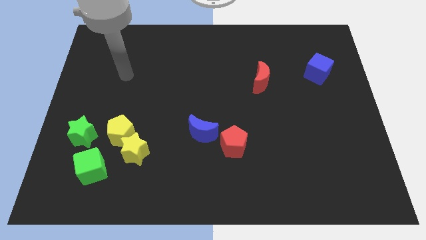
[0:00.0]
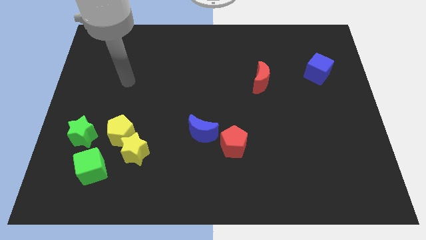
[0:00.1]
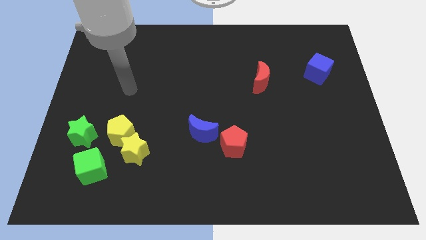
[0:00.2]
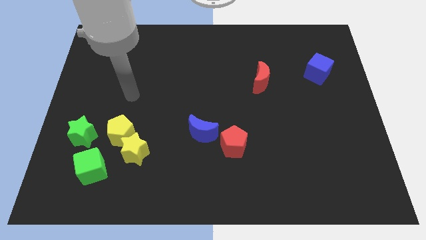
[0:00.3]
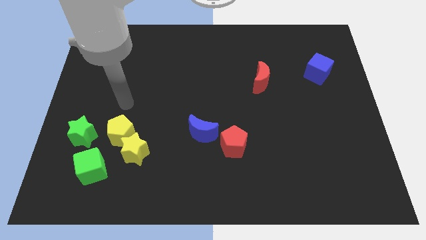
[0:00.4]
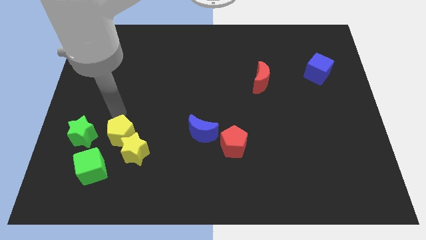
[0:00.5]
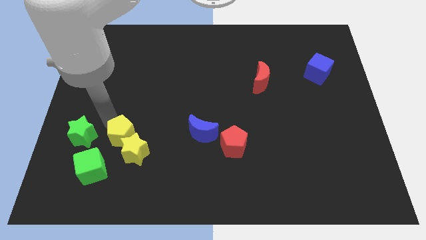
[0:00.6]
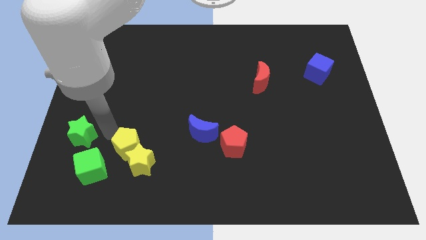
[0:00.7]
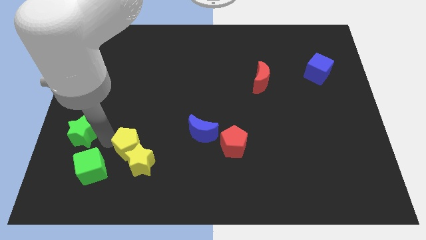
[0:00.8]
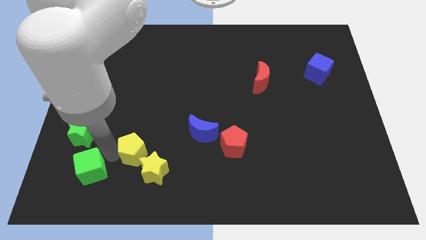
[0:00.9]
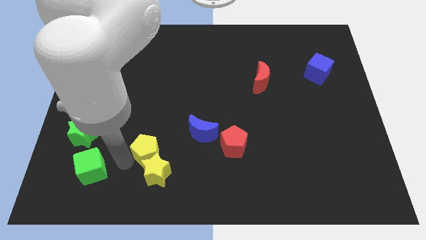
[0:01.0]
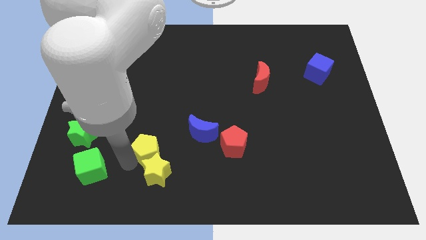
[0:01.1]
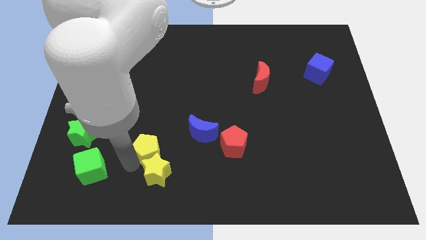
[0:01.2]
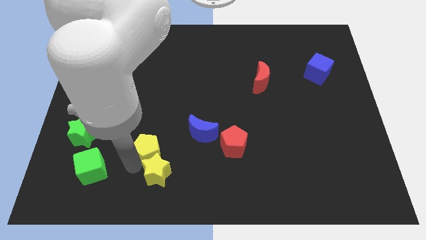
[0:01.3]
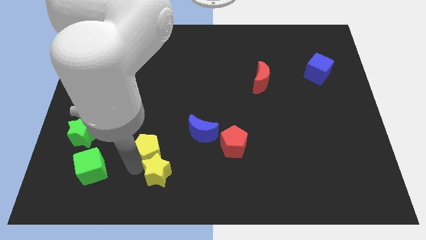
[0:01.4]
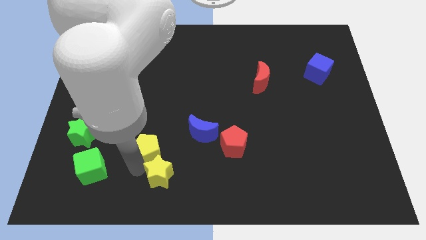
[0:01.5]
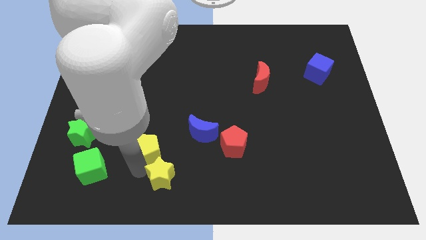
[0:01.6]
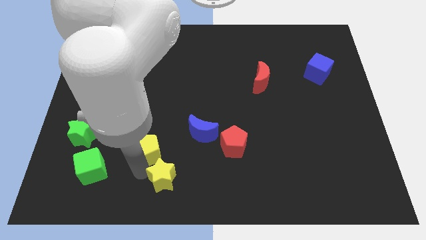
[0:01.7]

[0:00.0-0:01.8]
move the yellow star away from the yellow pentagon and green cube

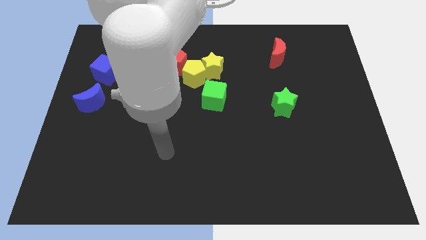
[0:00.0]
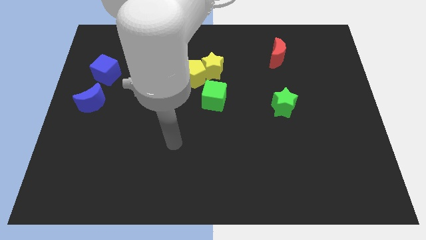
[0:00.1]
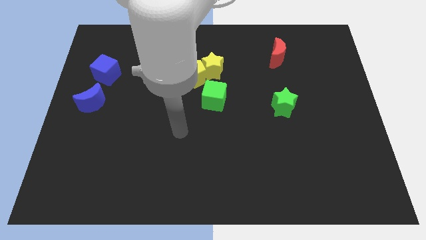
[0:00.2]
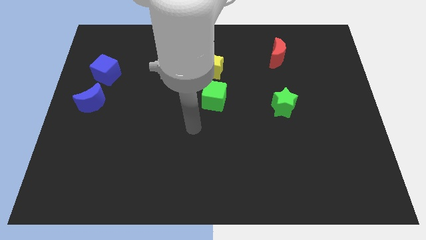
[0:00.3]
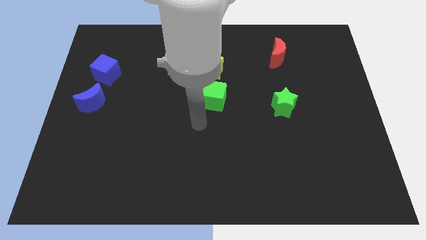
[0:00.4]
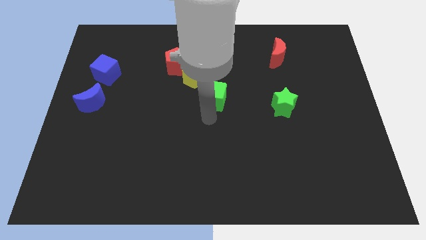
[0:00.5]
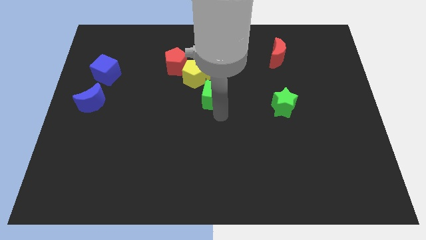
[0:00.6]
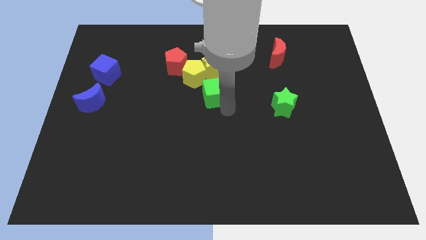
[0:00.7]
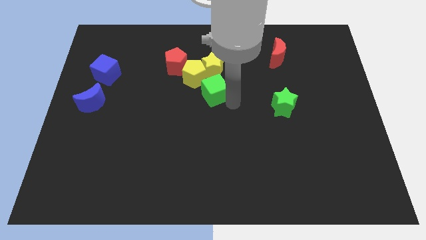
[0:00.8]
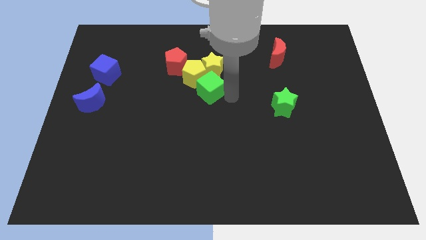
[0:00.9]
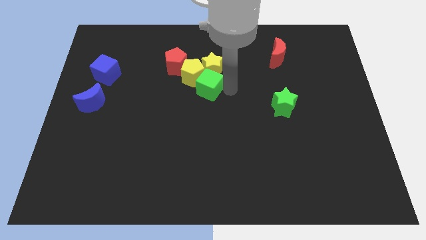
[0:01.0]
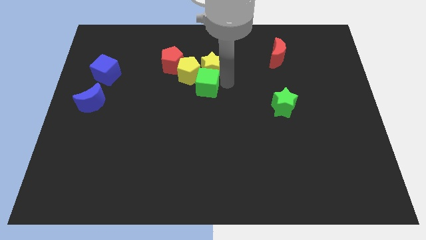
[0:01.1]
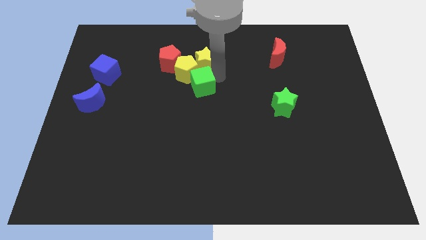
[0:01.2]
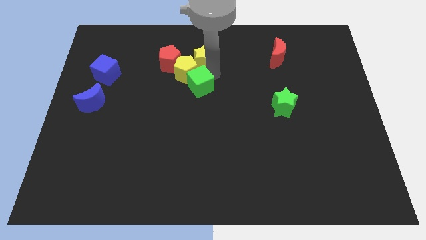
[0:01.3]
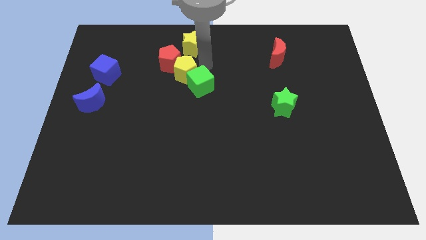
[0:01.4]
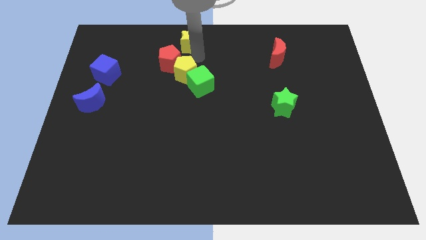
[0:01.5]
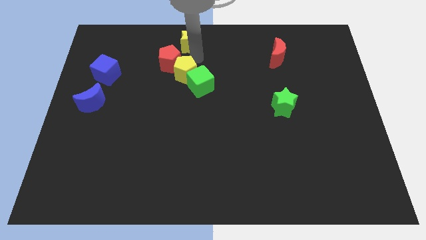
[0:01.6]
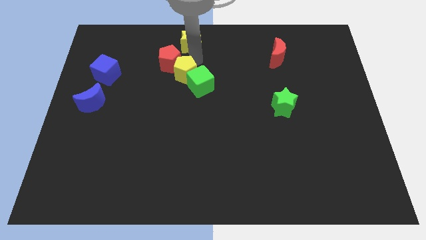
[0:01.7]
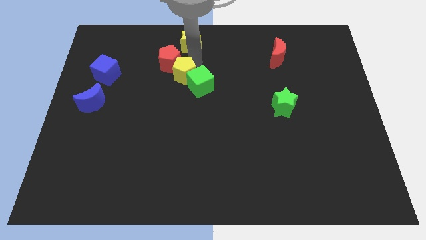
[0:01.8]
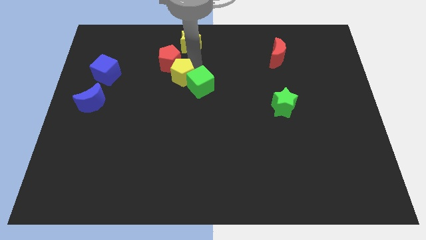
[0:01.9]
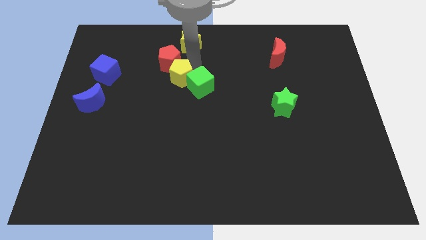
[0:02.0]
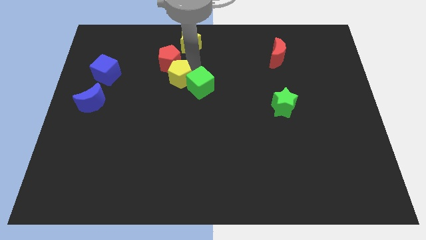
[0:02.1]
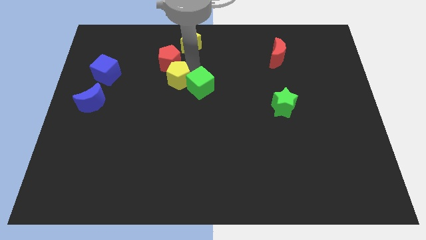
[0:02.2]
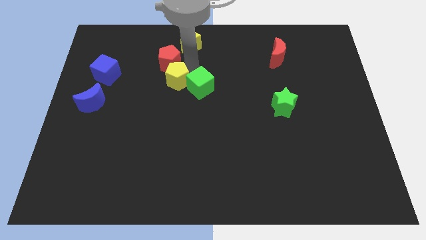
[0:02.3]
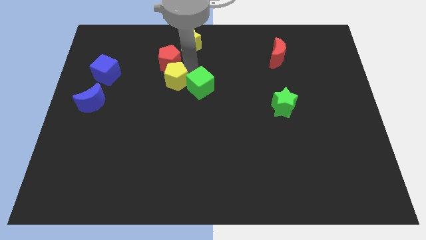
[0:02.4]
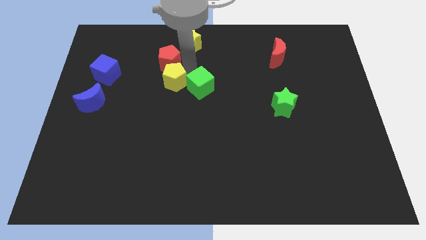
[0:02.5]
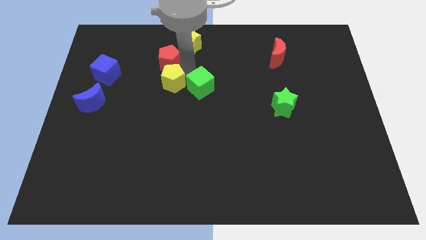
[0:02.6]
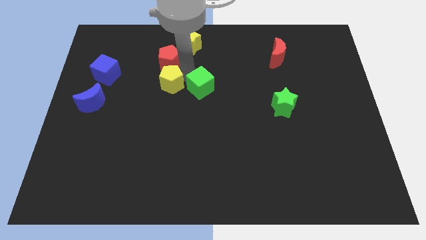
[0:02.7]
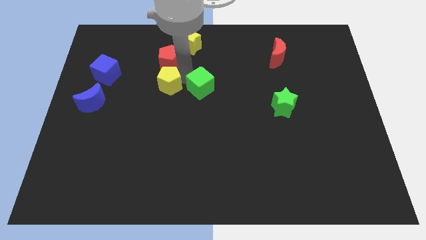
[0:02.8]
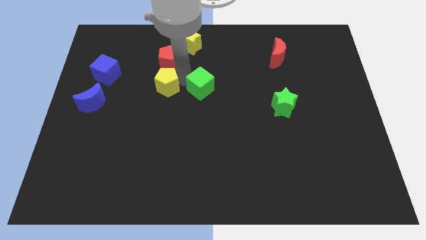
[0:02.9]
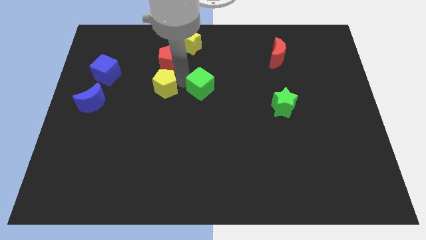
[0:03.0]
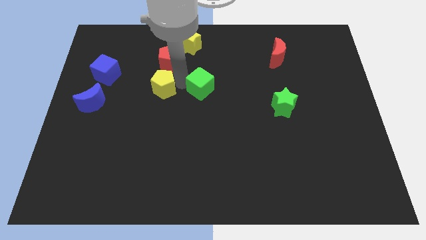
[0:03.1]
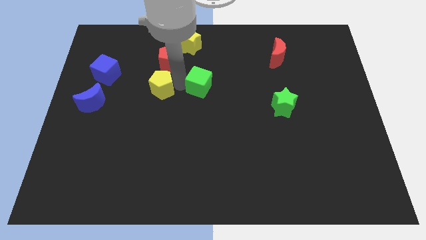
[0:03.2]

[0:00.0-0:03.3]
separate the yellow pentagon from the yellow star, red pentagon, and green cube

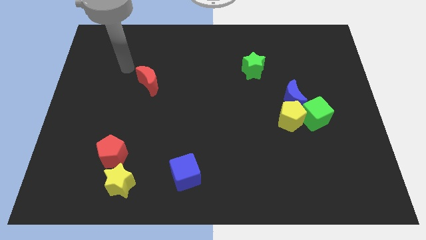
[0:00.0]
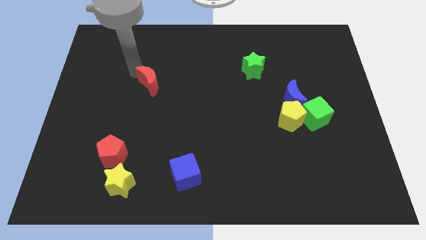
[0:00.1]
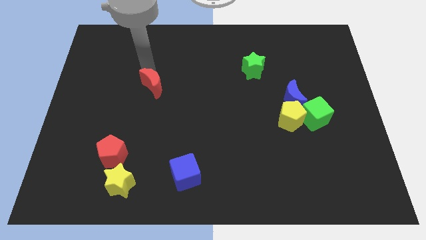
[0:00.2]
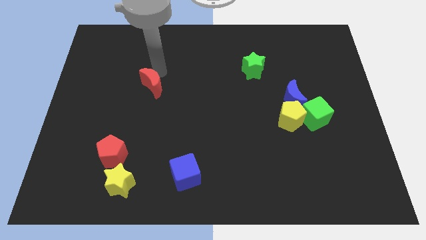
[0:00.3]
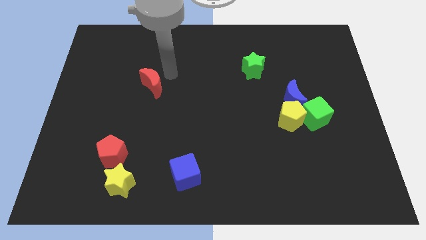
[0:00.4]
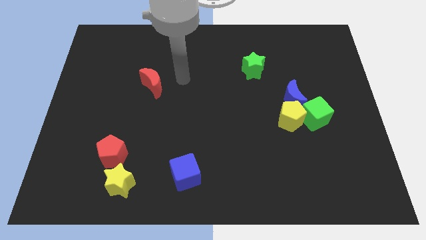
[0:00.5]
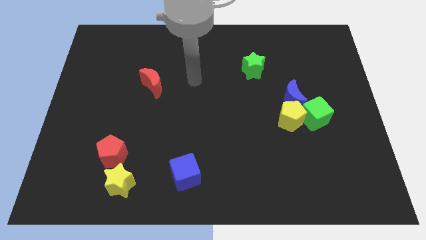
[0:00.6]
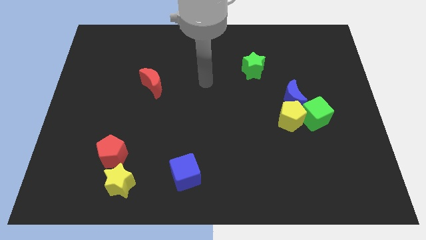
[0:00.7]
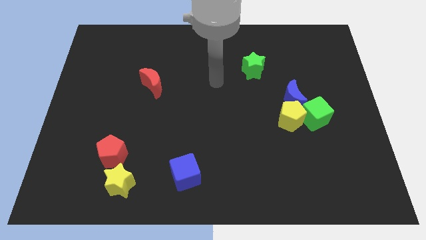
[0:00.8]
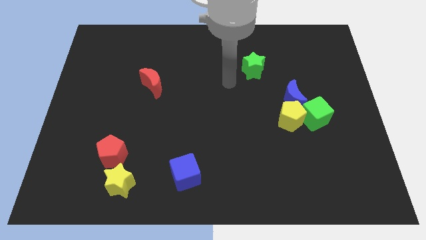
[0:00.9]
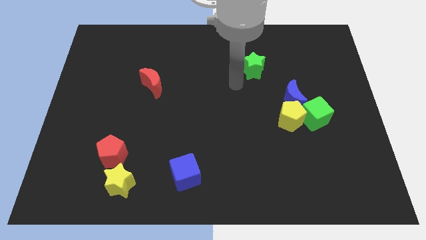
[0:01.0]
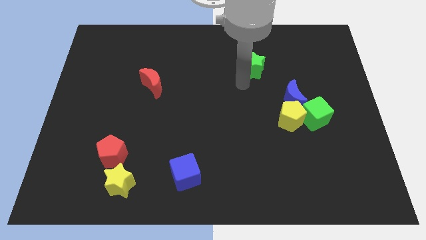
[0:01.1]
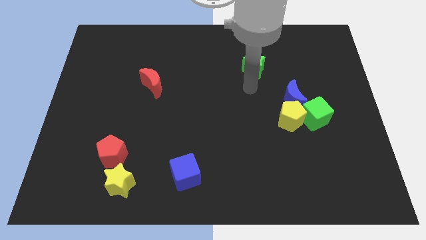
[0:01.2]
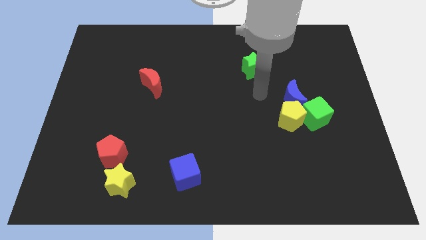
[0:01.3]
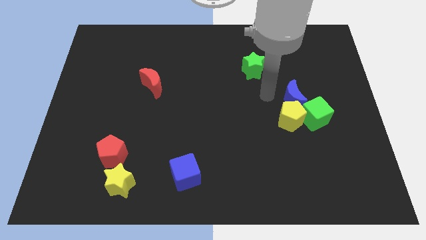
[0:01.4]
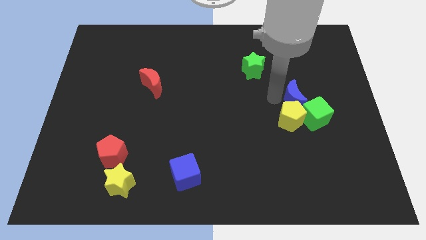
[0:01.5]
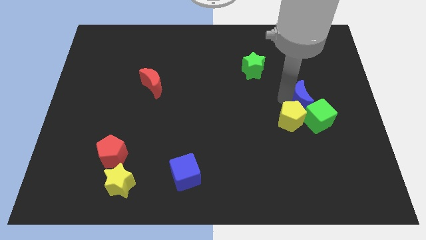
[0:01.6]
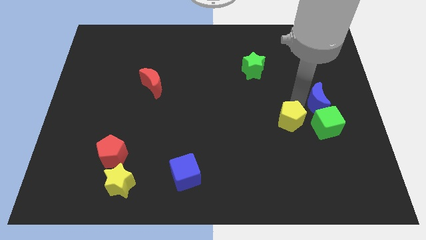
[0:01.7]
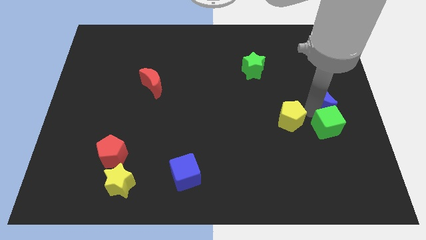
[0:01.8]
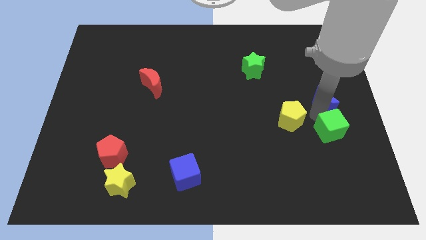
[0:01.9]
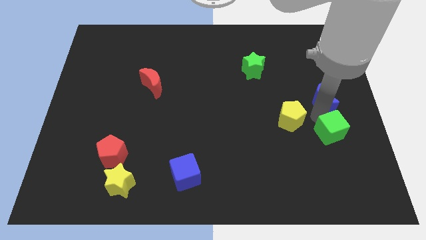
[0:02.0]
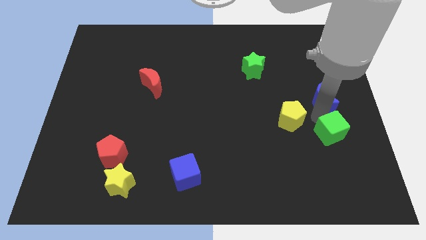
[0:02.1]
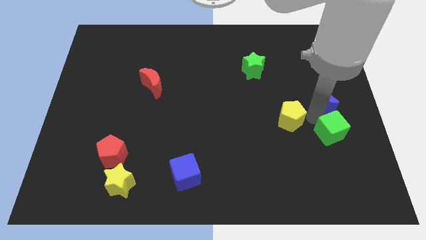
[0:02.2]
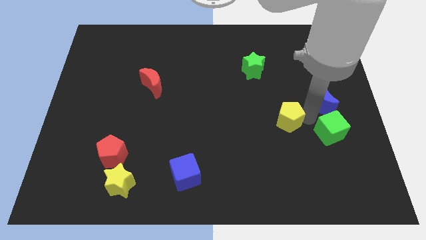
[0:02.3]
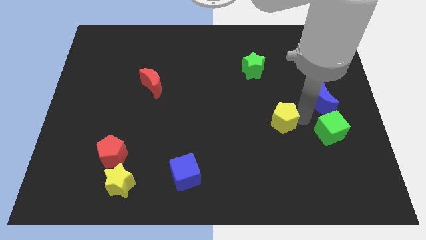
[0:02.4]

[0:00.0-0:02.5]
pull the yellow pentagon apart from the blue moon and green cube

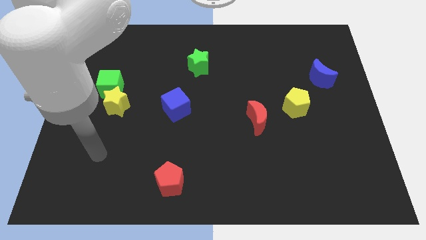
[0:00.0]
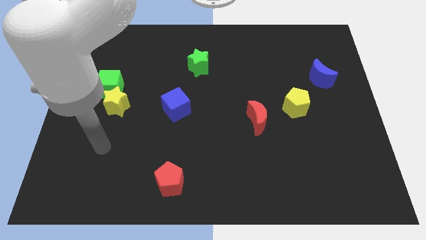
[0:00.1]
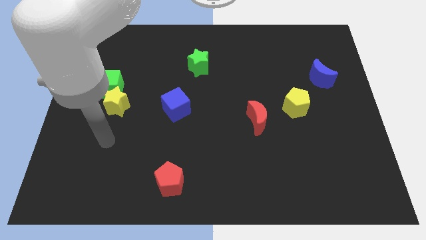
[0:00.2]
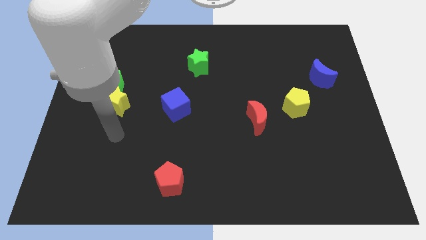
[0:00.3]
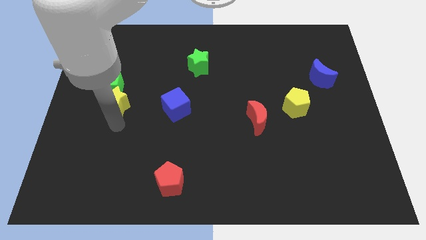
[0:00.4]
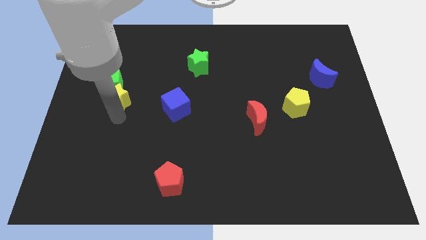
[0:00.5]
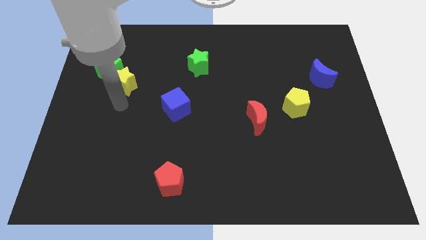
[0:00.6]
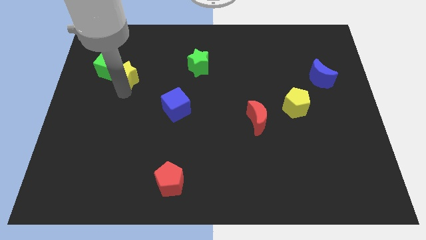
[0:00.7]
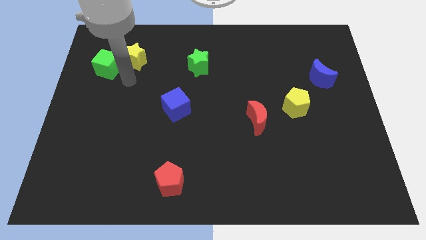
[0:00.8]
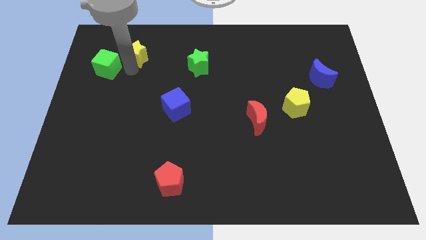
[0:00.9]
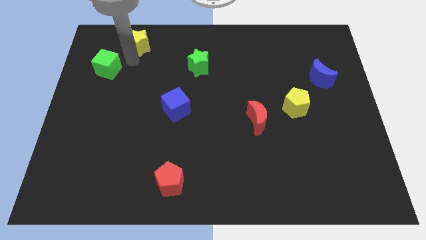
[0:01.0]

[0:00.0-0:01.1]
pull the green cube apart from the yellow star

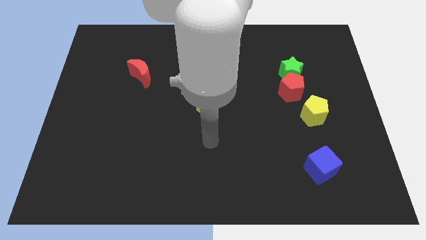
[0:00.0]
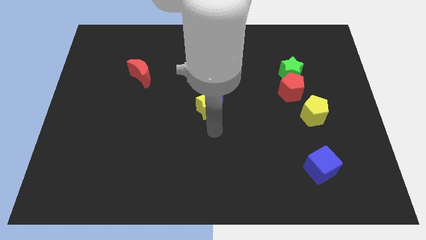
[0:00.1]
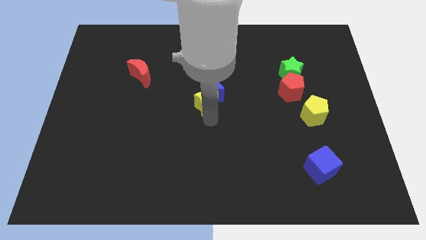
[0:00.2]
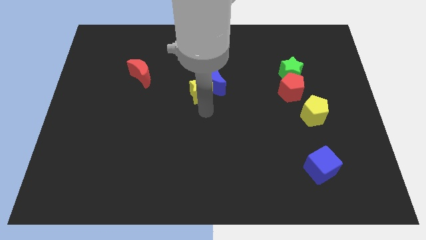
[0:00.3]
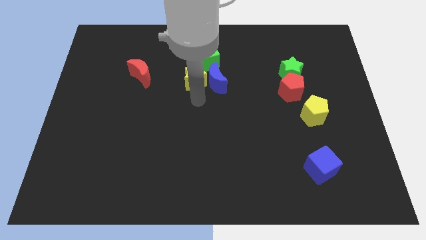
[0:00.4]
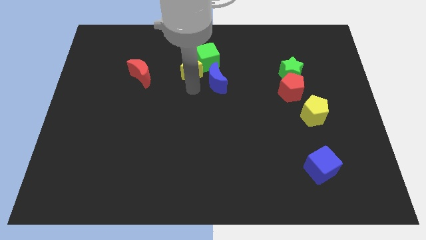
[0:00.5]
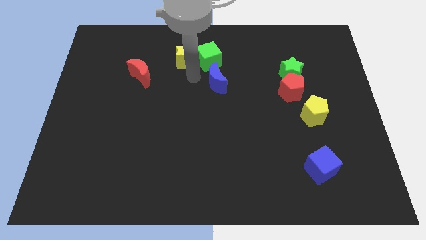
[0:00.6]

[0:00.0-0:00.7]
separate the blue moon from the yellow star
